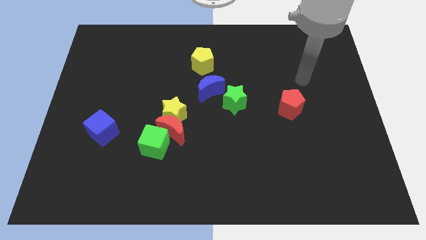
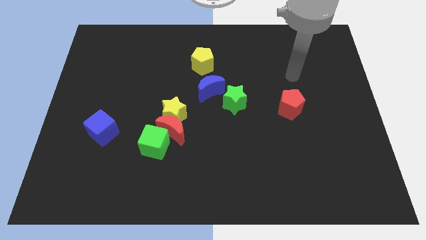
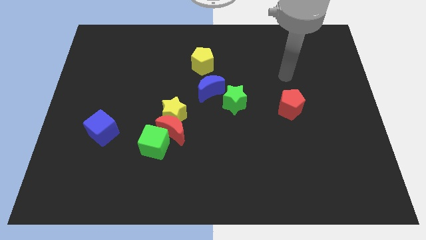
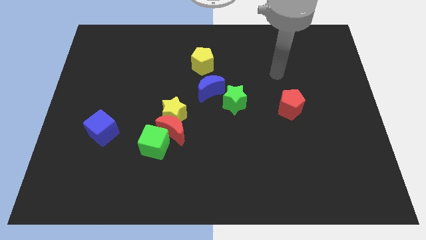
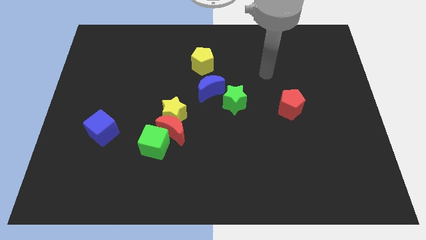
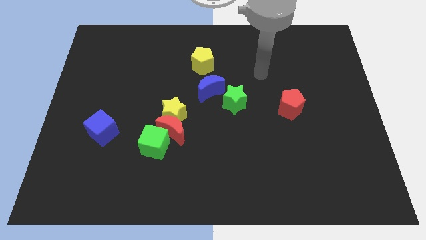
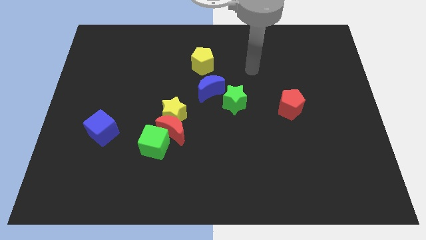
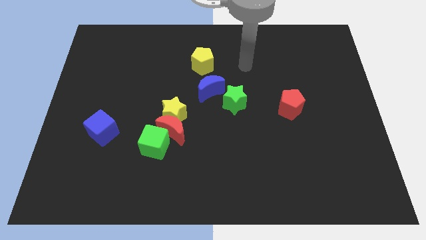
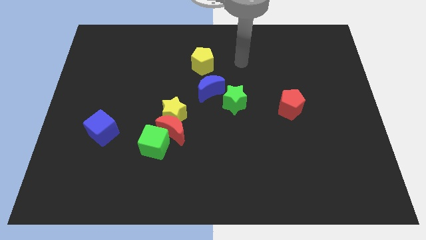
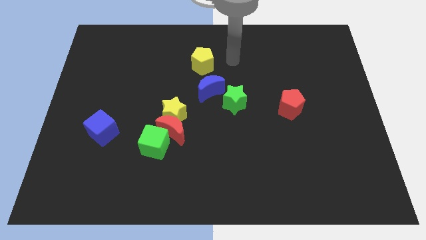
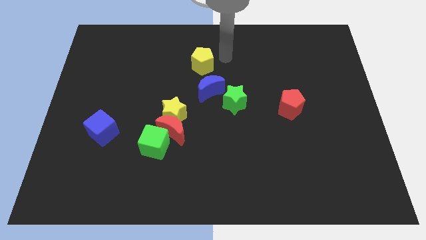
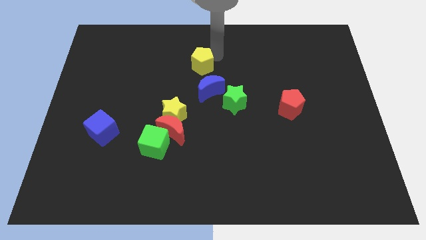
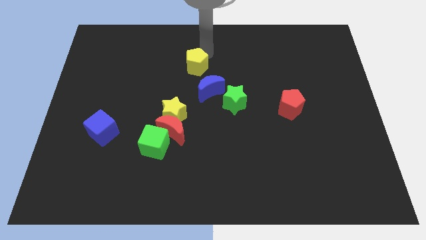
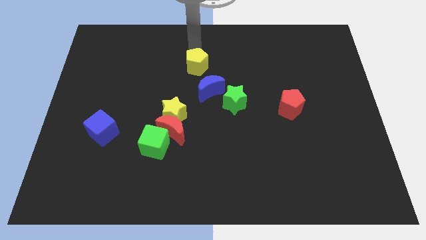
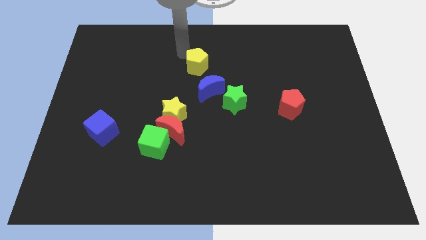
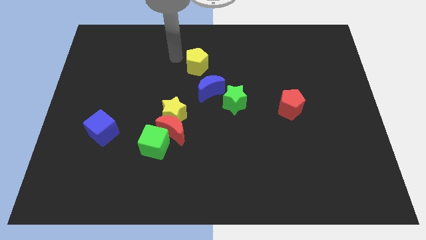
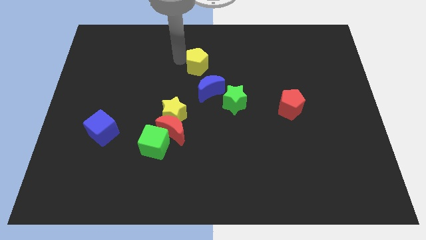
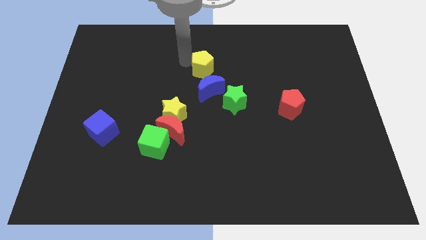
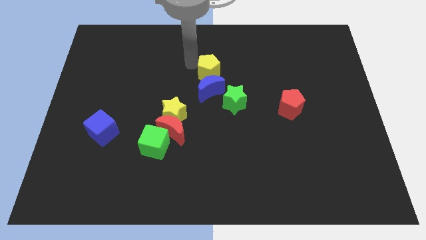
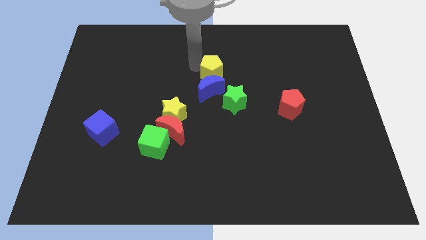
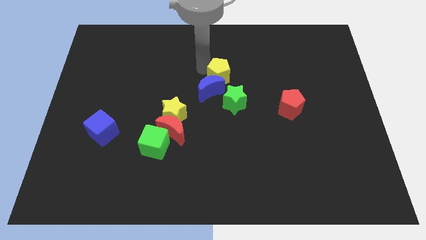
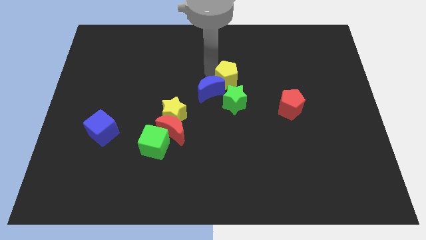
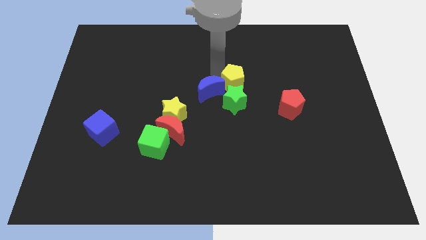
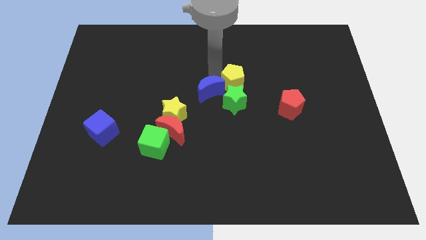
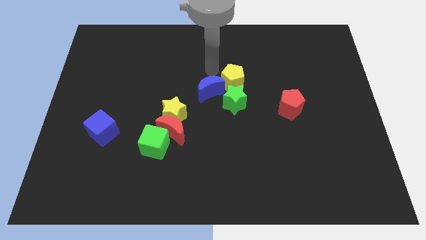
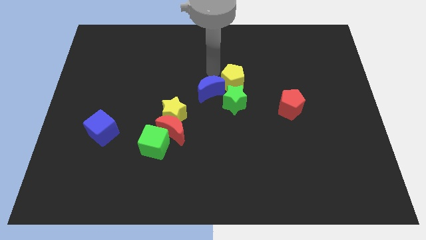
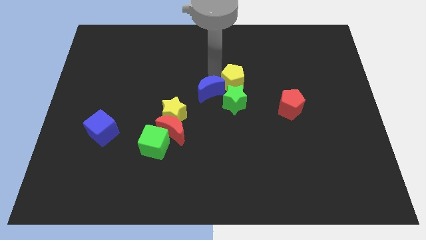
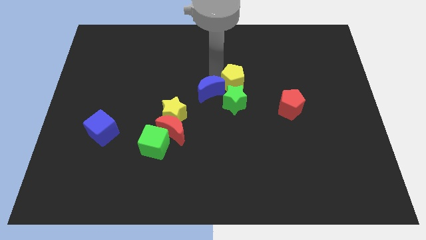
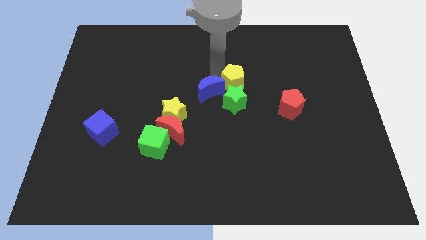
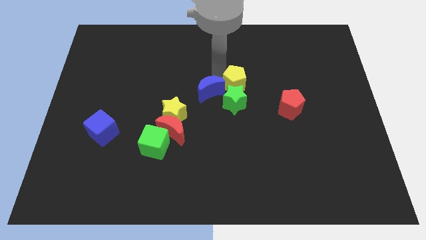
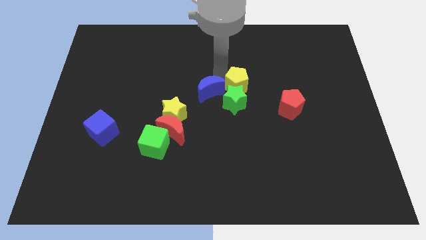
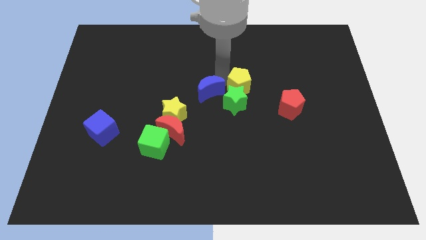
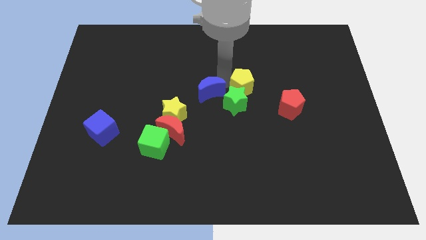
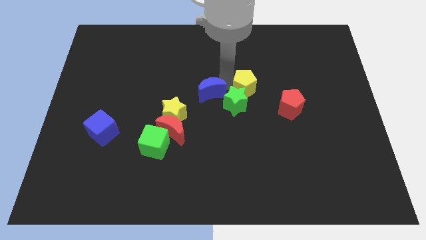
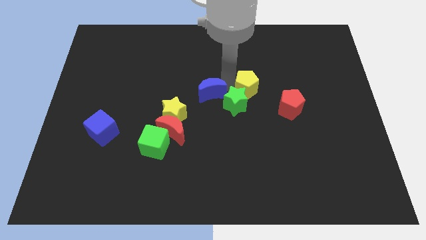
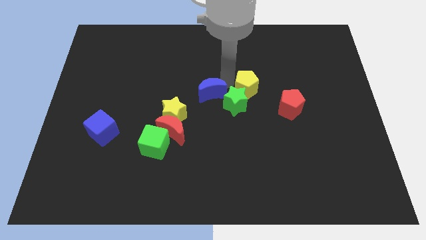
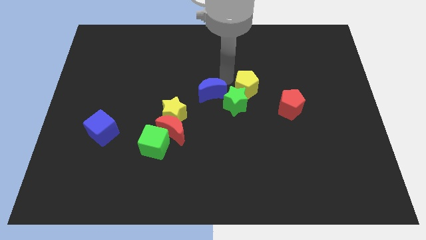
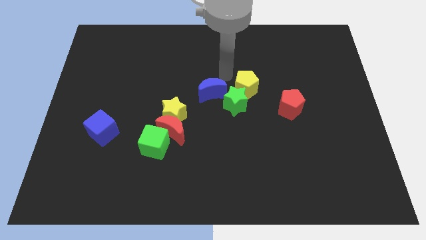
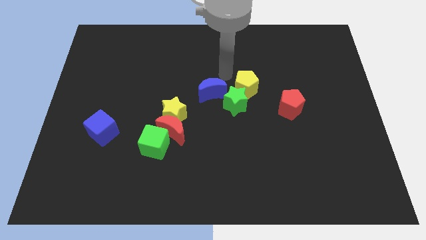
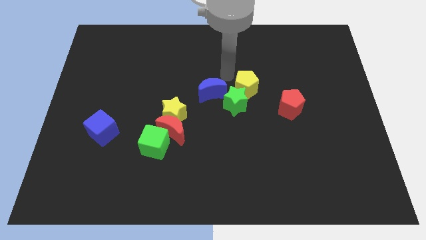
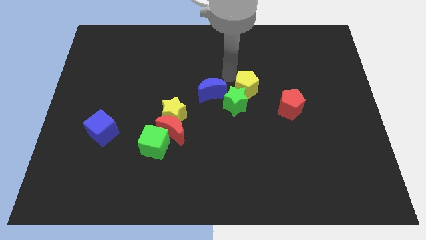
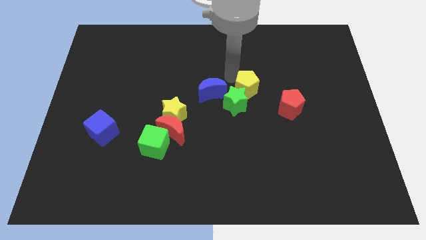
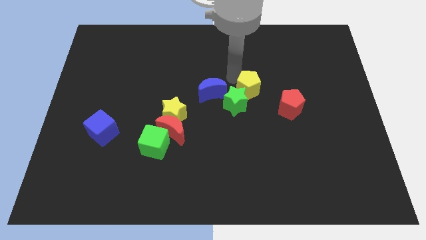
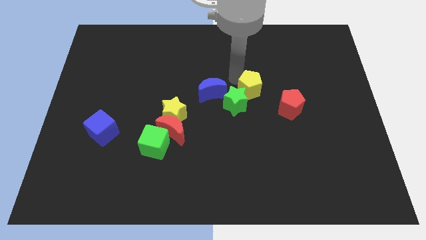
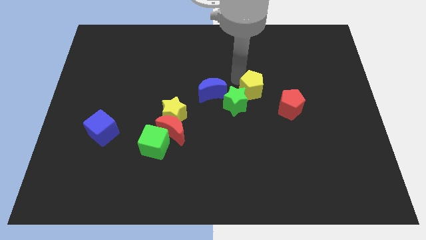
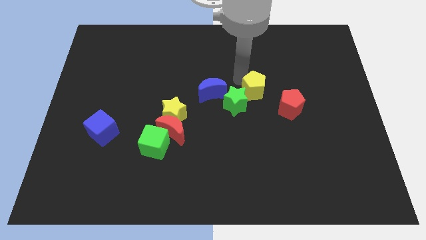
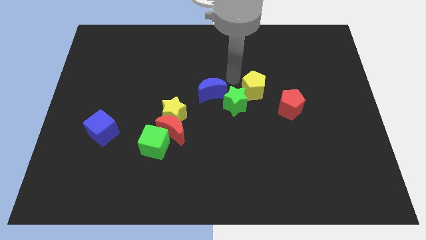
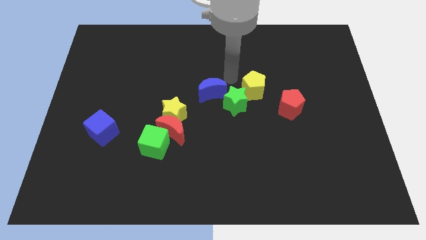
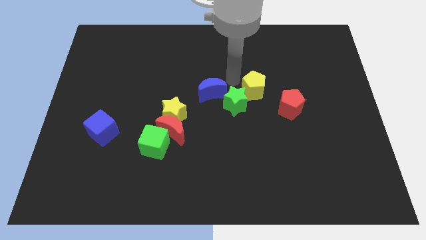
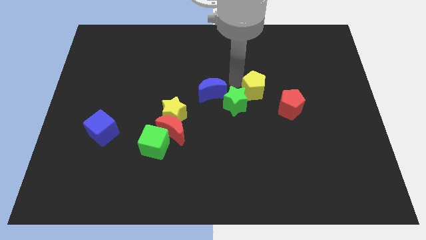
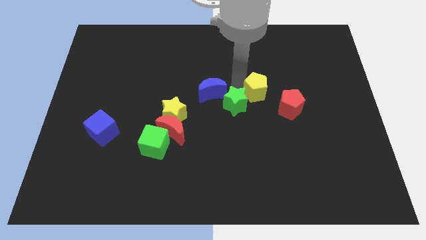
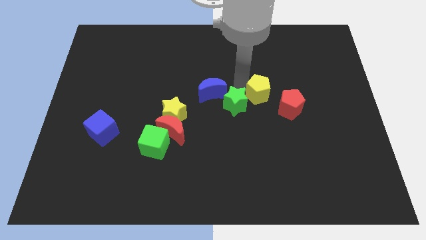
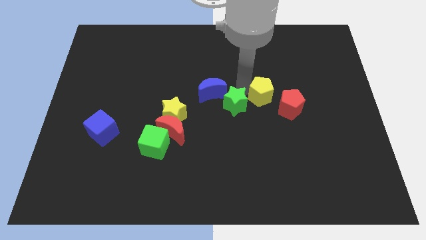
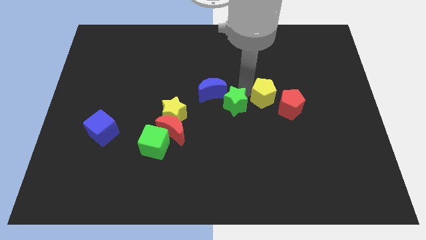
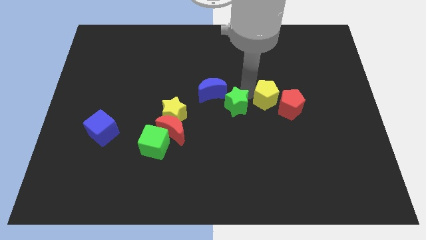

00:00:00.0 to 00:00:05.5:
move the yellow pentagon to the red pentagon

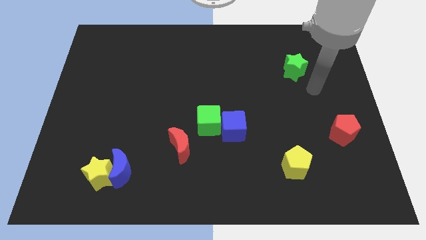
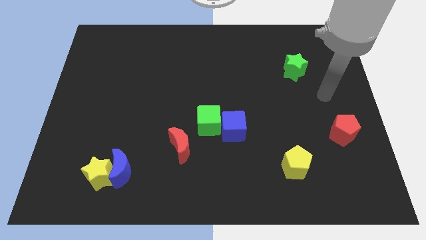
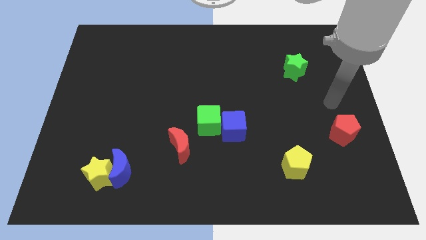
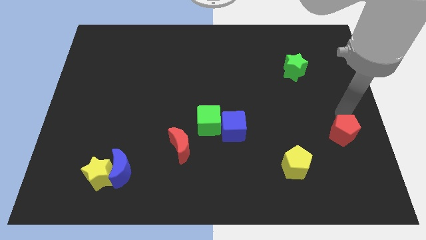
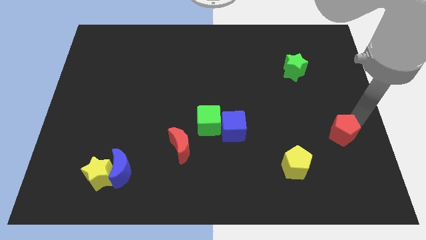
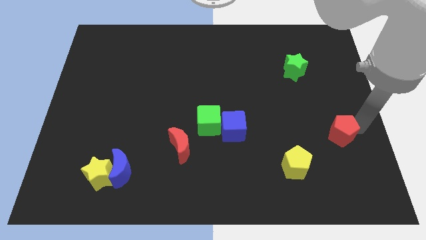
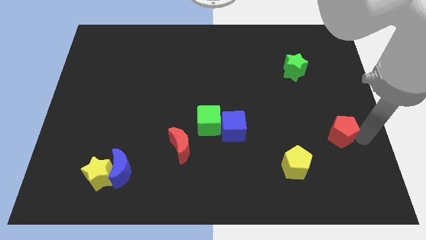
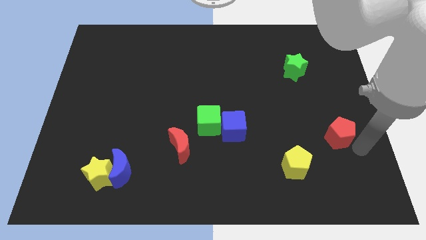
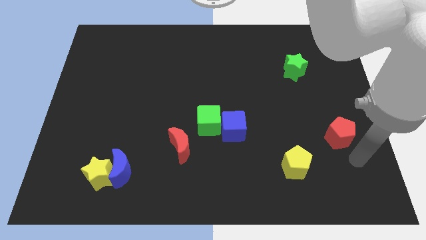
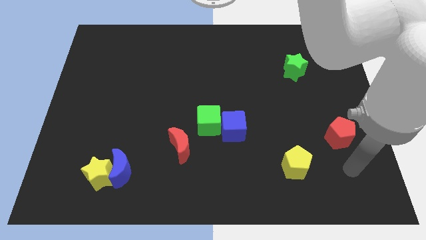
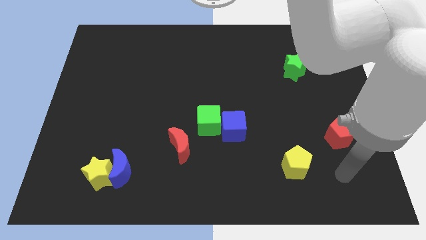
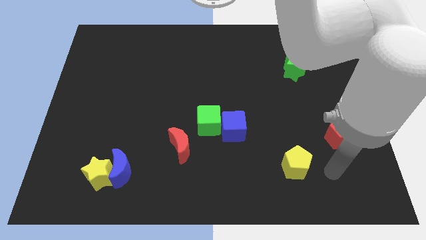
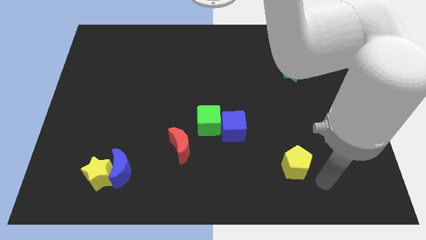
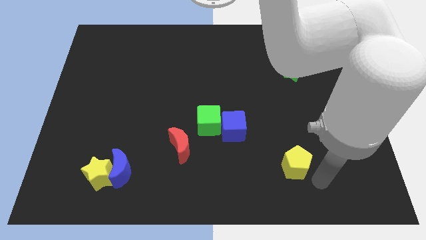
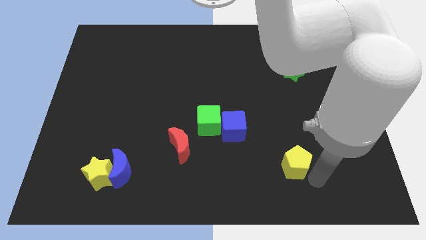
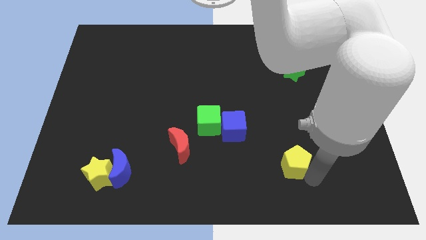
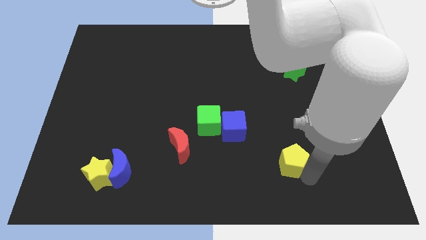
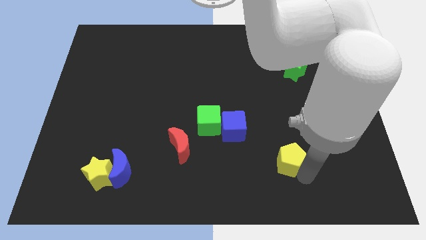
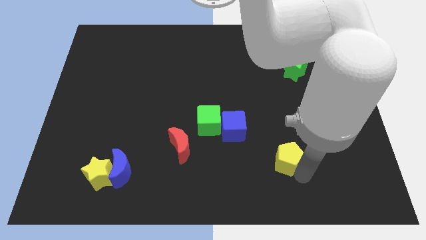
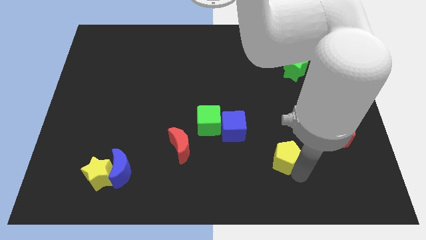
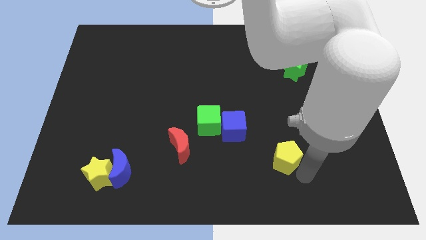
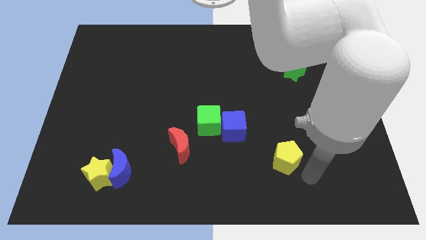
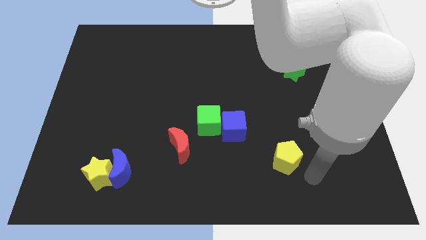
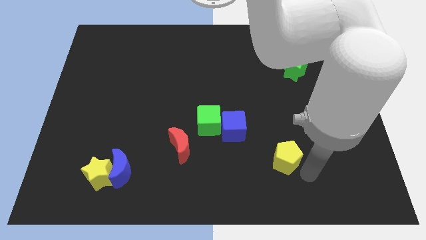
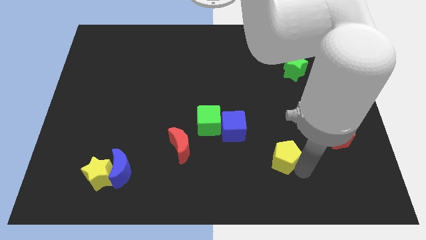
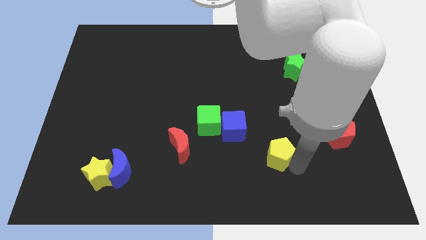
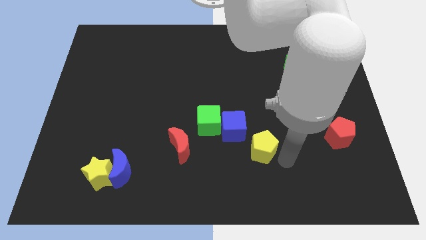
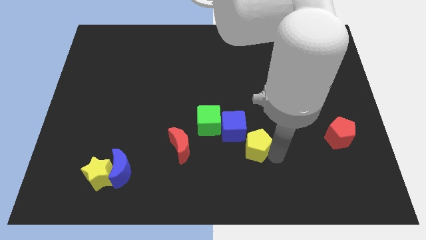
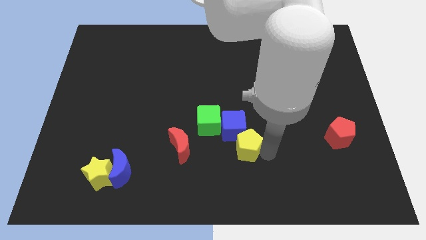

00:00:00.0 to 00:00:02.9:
slide the yellow pentagon to the blue cube
